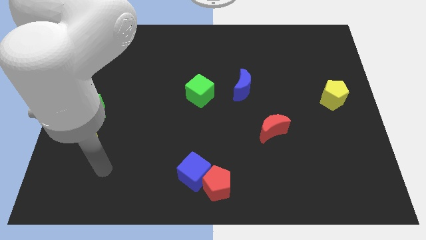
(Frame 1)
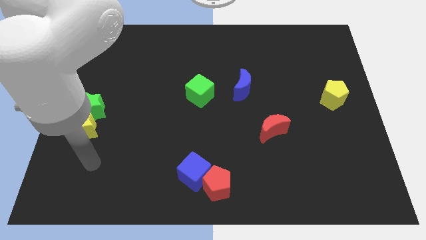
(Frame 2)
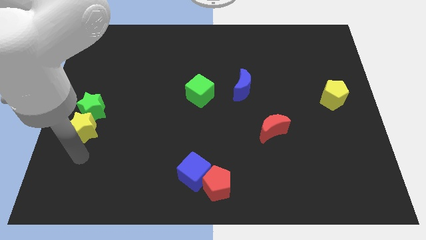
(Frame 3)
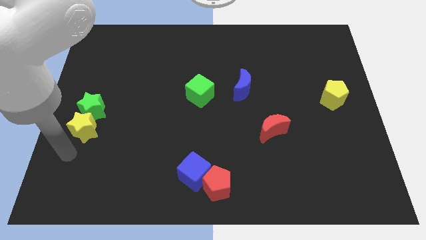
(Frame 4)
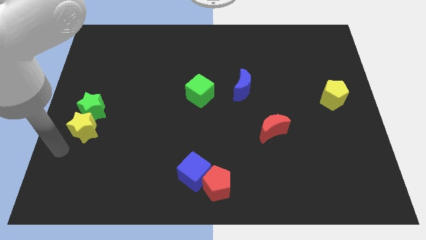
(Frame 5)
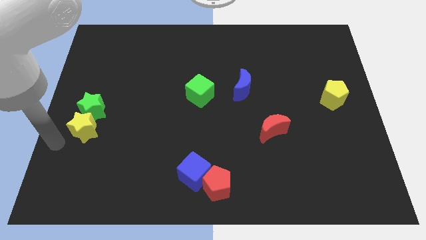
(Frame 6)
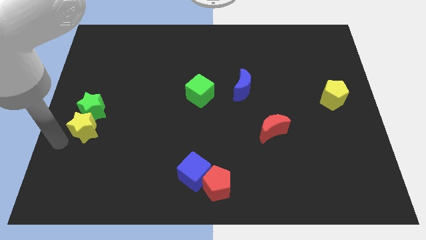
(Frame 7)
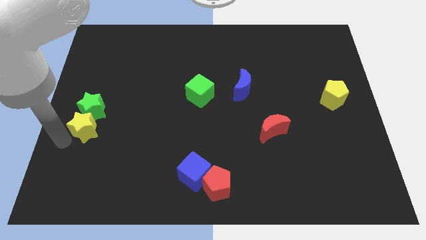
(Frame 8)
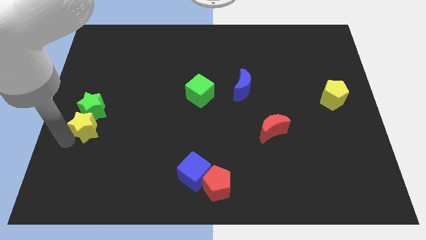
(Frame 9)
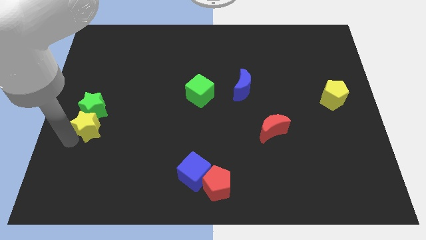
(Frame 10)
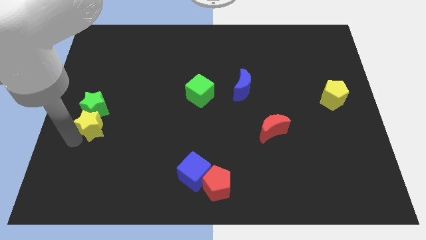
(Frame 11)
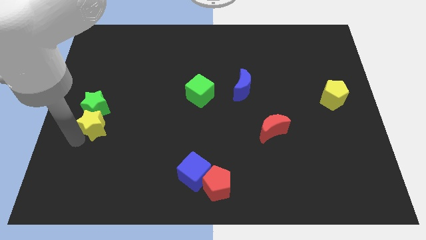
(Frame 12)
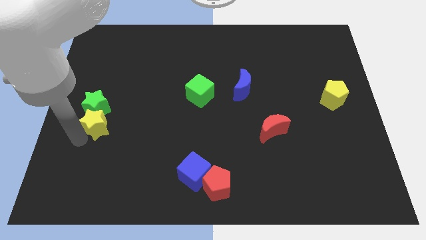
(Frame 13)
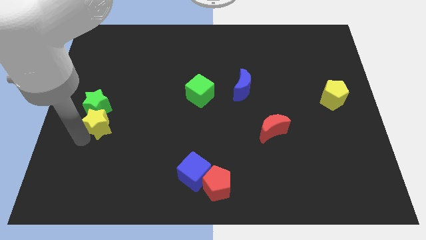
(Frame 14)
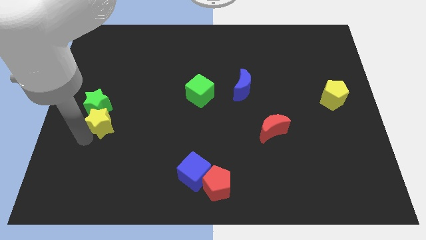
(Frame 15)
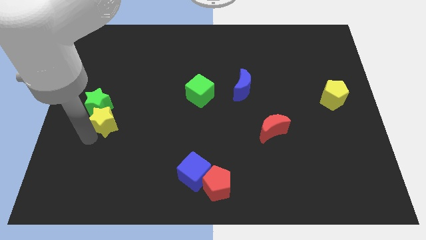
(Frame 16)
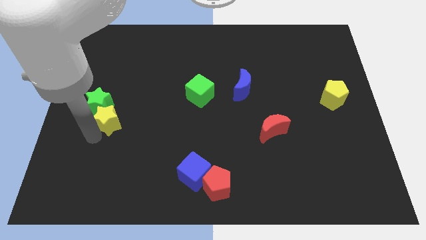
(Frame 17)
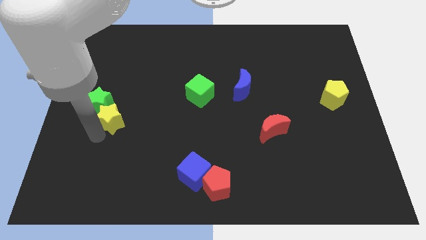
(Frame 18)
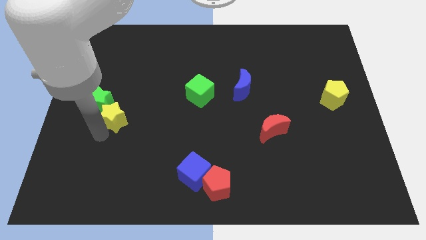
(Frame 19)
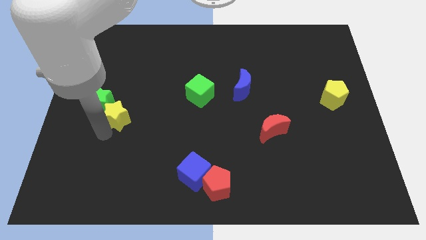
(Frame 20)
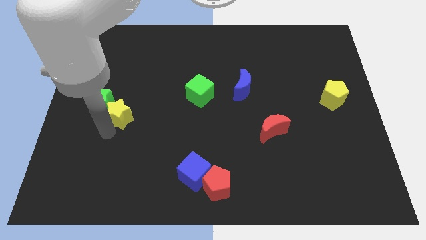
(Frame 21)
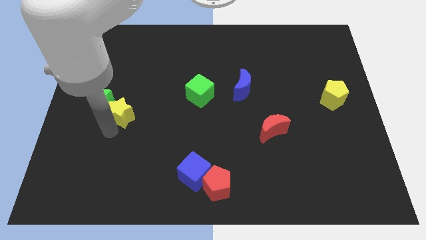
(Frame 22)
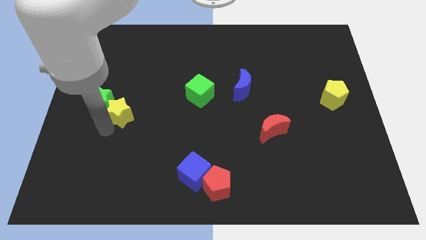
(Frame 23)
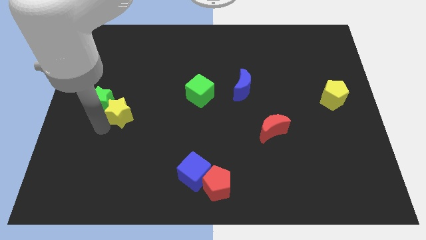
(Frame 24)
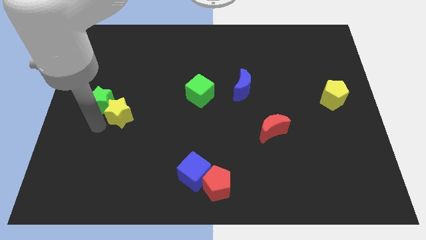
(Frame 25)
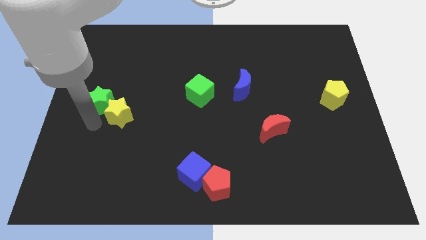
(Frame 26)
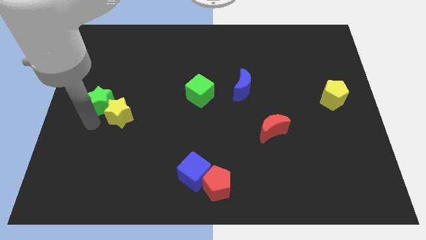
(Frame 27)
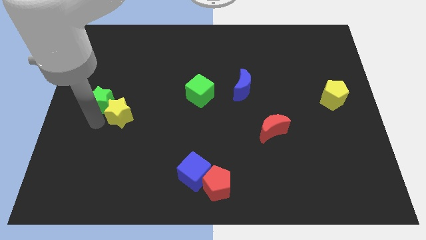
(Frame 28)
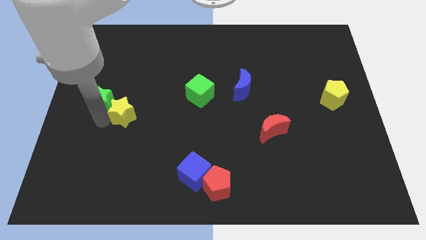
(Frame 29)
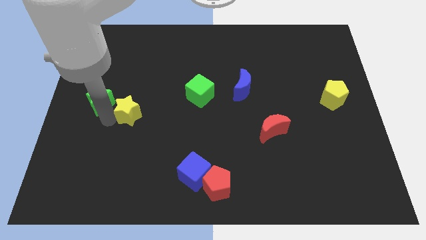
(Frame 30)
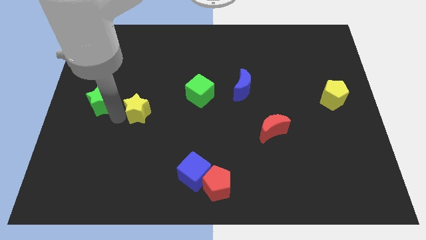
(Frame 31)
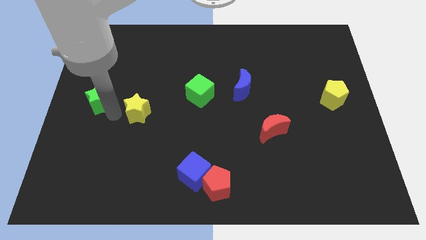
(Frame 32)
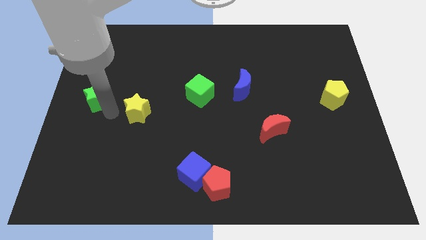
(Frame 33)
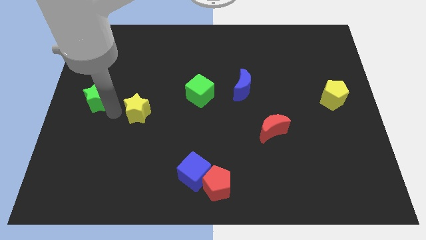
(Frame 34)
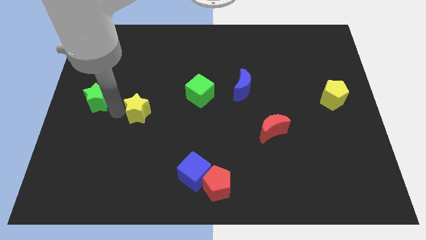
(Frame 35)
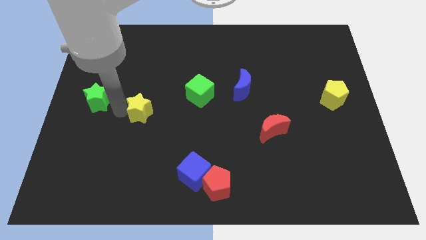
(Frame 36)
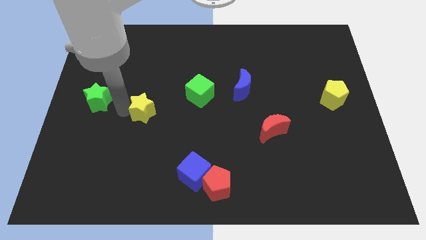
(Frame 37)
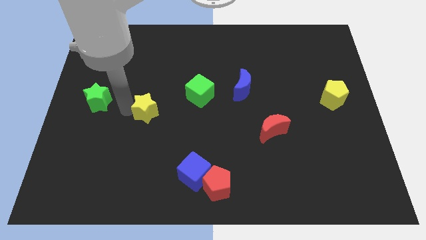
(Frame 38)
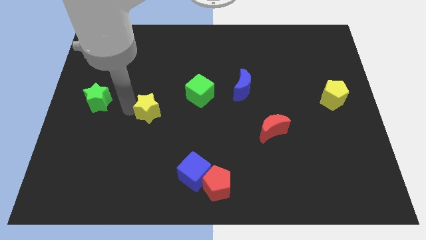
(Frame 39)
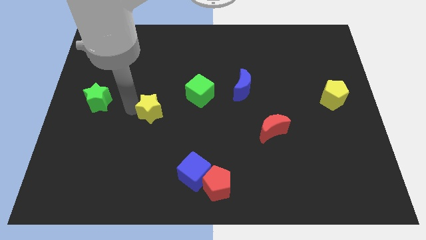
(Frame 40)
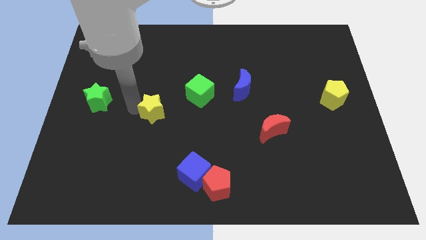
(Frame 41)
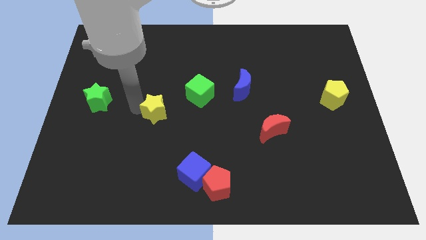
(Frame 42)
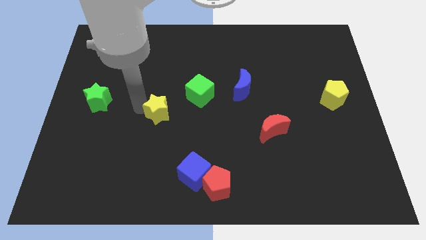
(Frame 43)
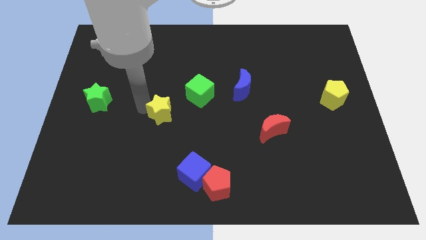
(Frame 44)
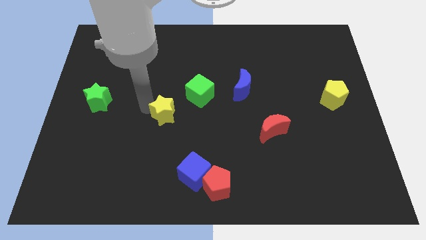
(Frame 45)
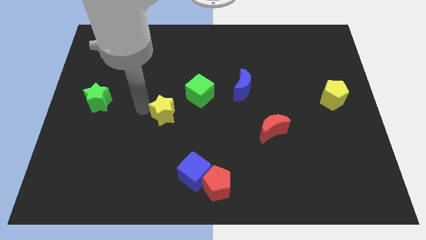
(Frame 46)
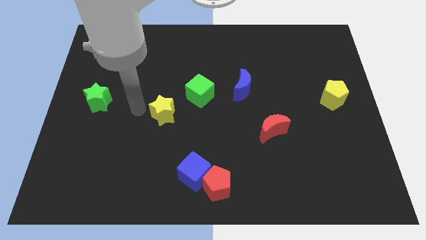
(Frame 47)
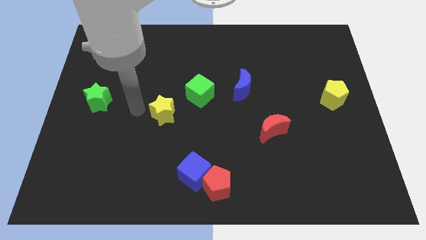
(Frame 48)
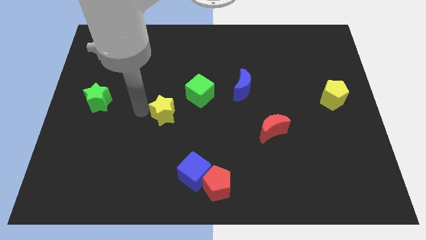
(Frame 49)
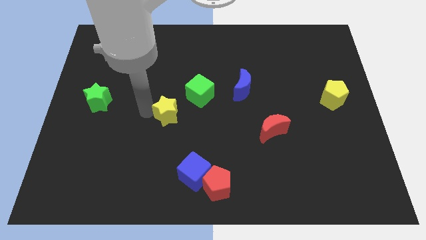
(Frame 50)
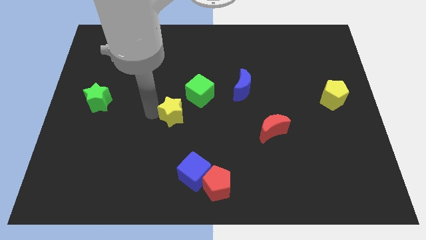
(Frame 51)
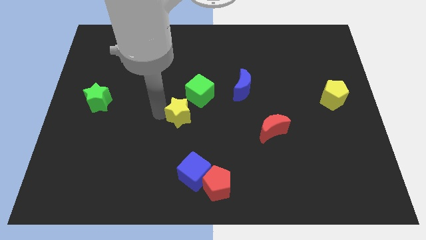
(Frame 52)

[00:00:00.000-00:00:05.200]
slide the yellow star to the bottom of the green cube

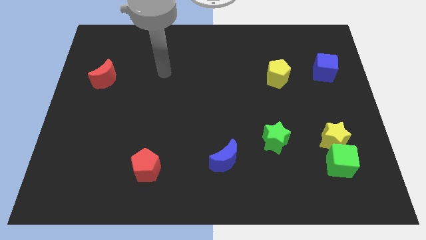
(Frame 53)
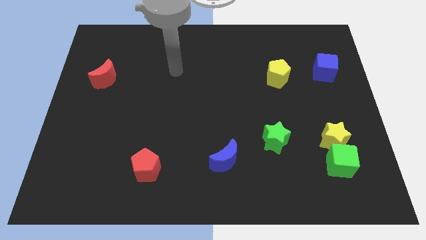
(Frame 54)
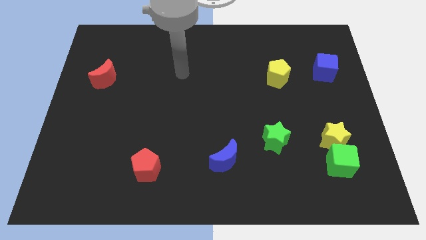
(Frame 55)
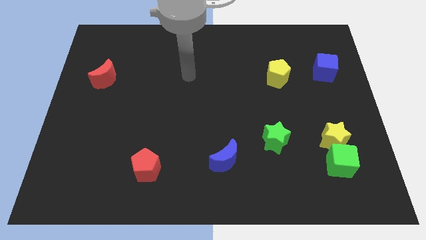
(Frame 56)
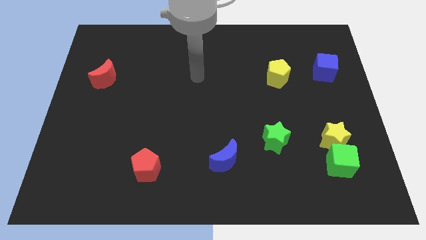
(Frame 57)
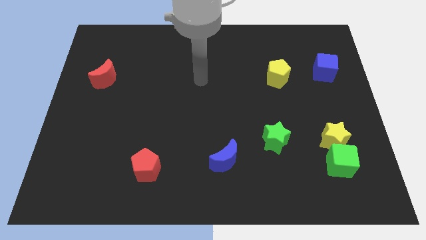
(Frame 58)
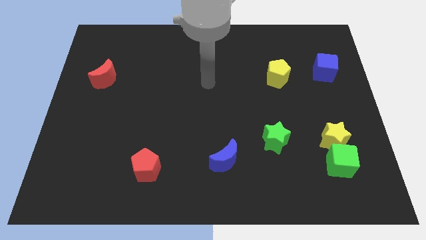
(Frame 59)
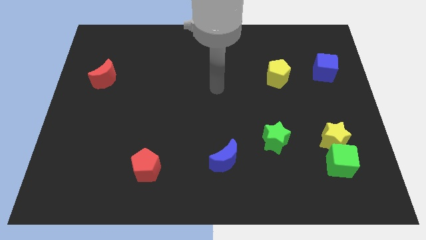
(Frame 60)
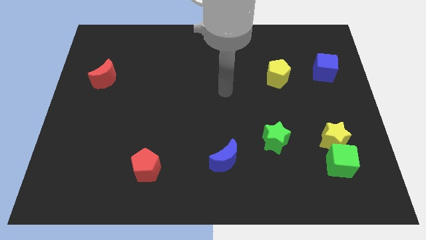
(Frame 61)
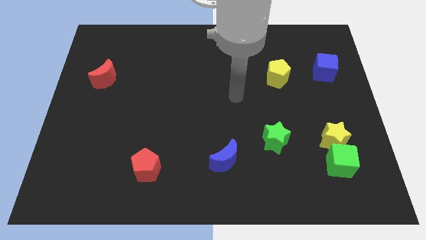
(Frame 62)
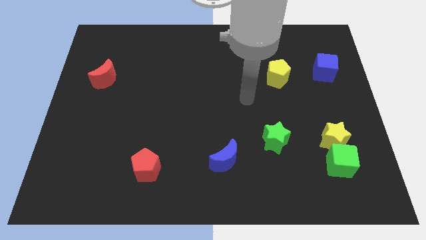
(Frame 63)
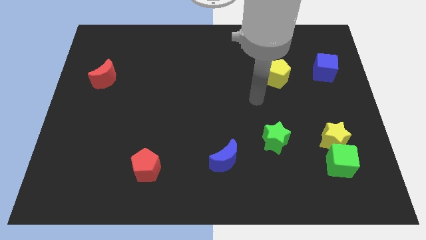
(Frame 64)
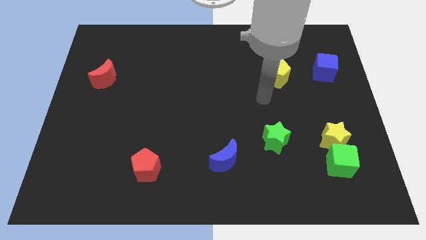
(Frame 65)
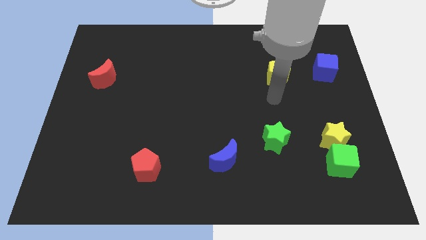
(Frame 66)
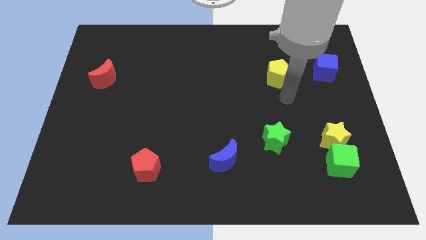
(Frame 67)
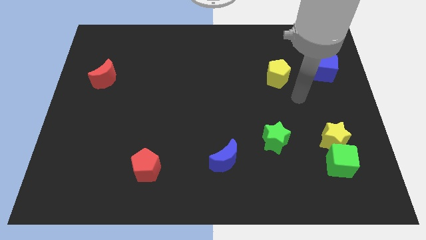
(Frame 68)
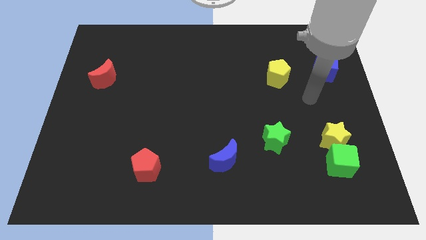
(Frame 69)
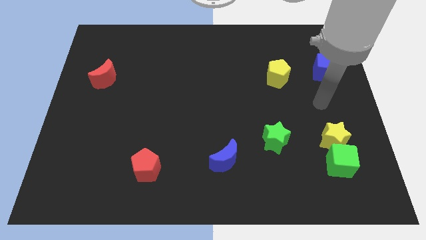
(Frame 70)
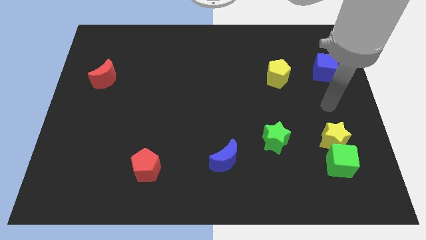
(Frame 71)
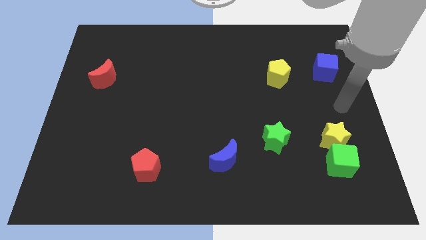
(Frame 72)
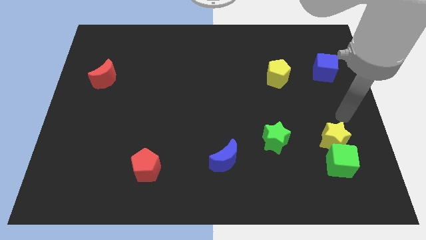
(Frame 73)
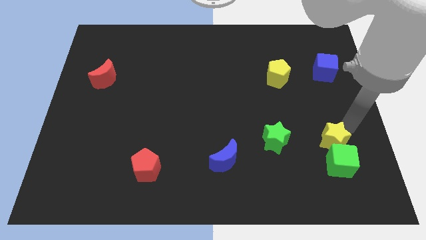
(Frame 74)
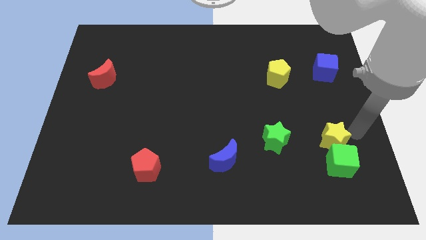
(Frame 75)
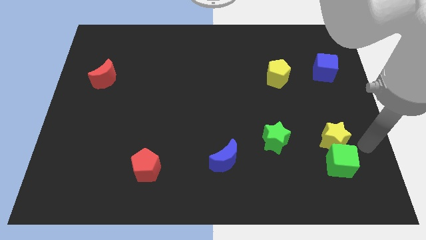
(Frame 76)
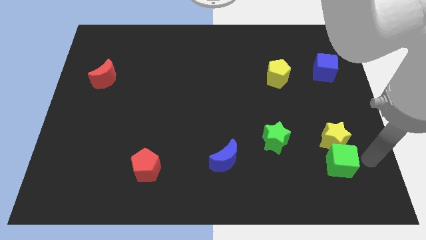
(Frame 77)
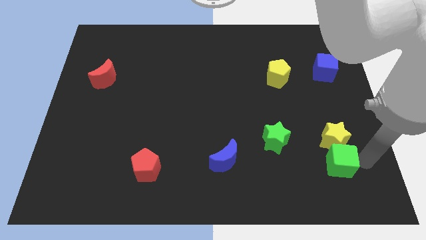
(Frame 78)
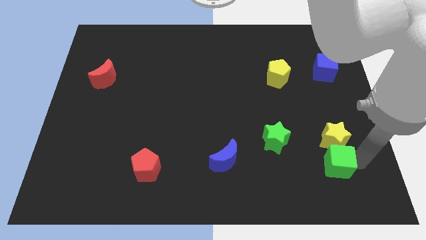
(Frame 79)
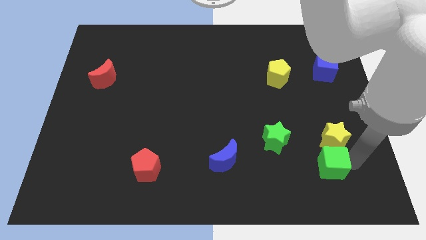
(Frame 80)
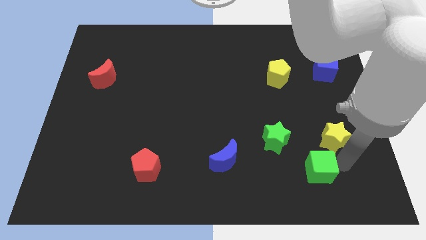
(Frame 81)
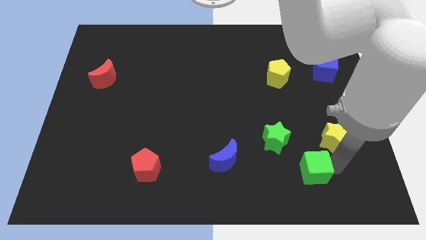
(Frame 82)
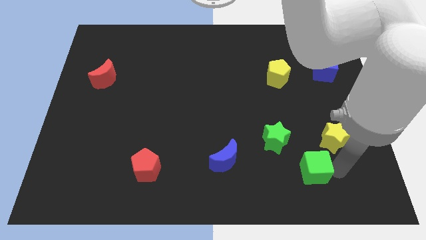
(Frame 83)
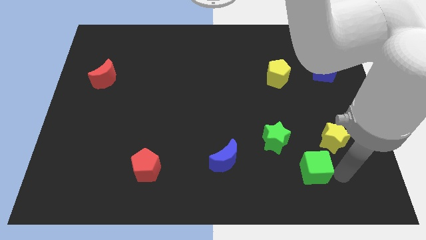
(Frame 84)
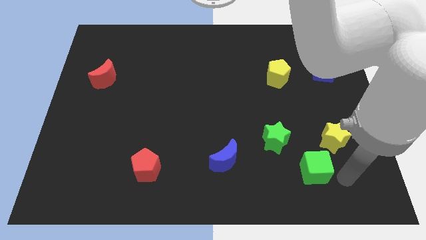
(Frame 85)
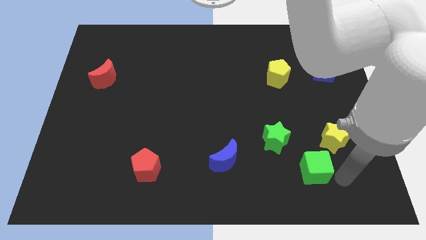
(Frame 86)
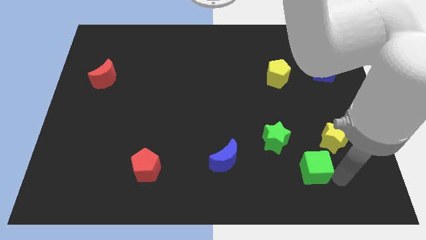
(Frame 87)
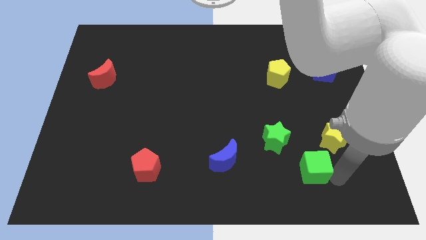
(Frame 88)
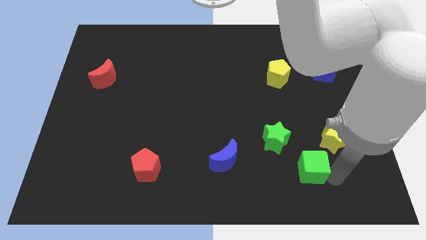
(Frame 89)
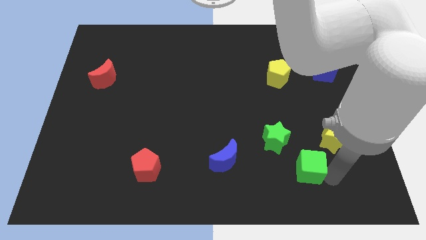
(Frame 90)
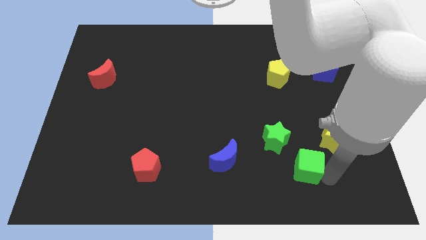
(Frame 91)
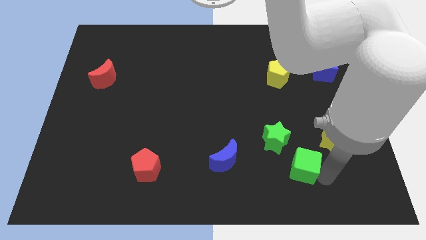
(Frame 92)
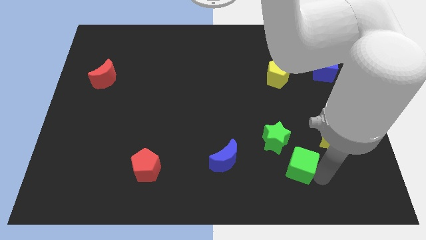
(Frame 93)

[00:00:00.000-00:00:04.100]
slide the green cube to the right of the blue moon
